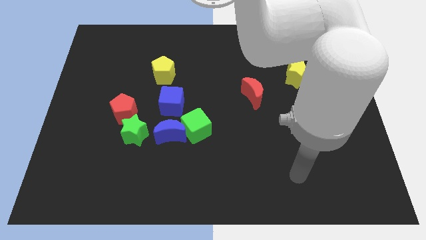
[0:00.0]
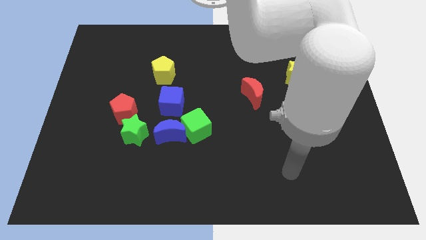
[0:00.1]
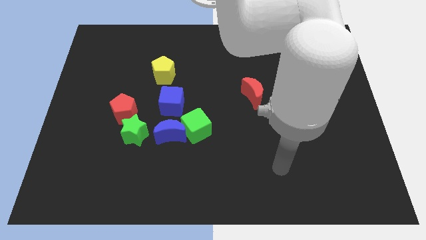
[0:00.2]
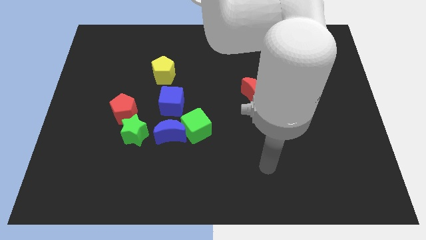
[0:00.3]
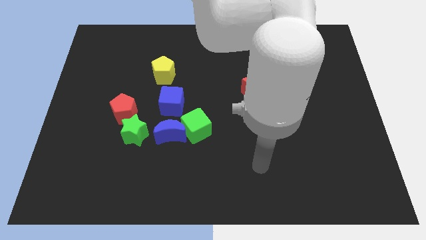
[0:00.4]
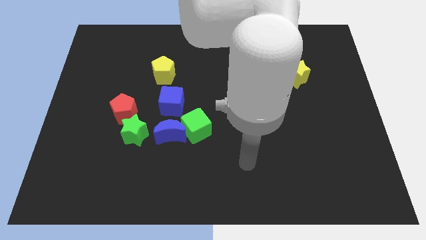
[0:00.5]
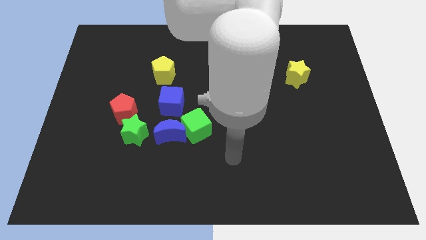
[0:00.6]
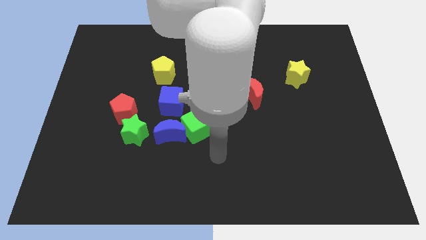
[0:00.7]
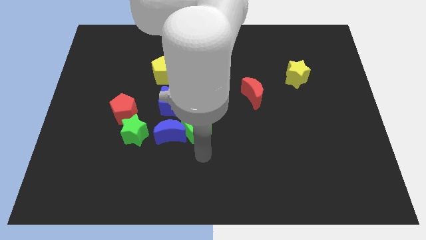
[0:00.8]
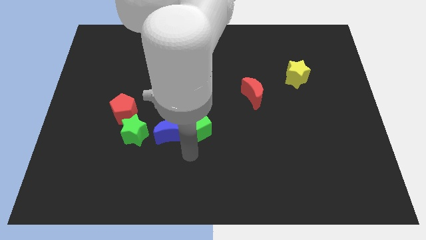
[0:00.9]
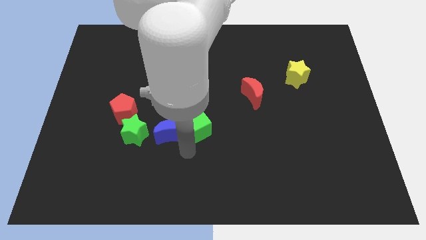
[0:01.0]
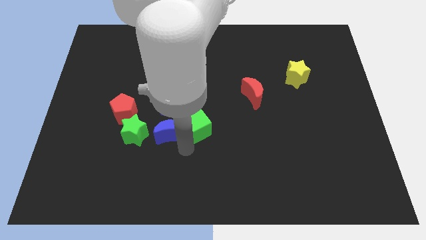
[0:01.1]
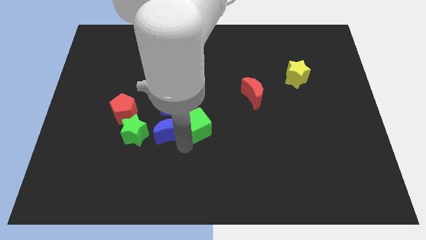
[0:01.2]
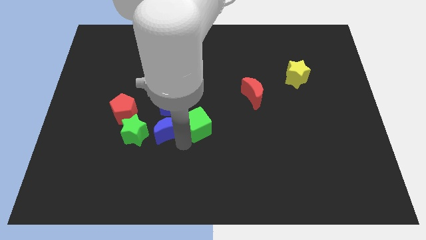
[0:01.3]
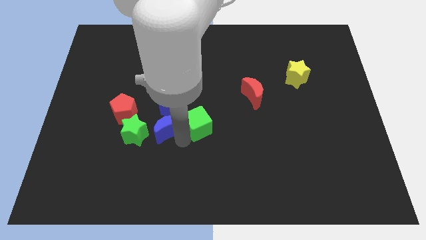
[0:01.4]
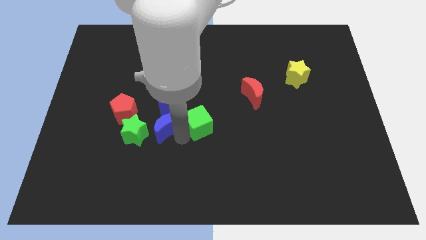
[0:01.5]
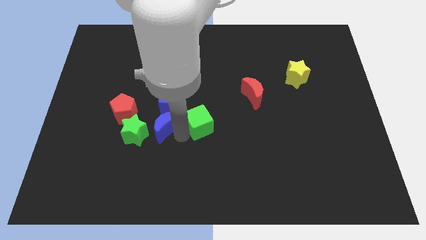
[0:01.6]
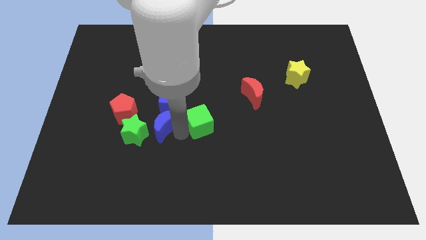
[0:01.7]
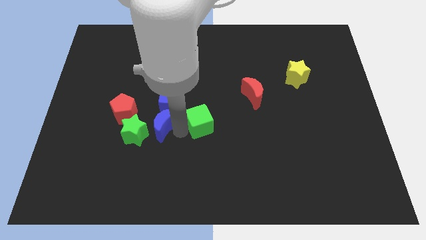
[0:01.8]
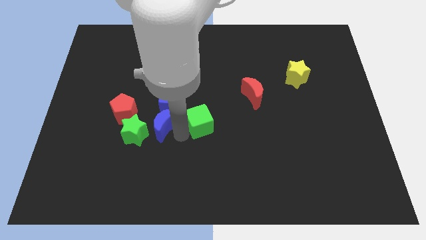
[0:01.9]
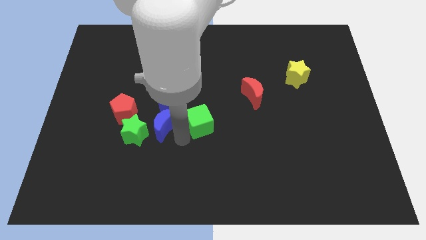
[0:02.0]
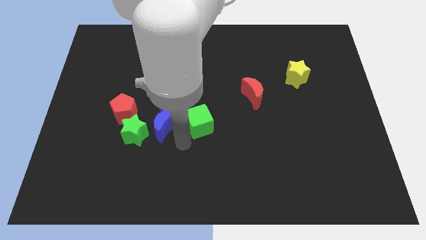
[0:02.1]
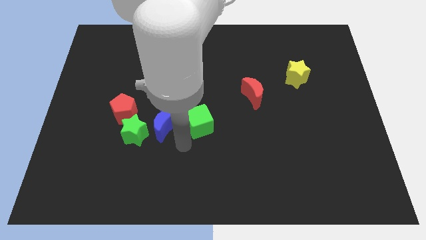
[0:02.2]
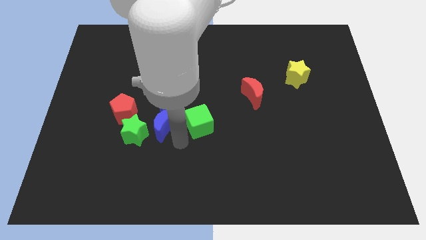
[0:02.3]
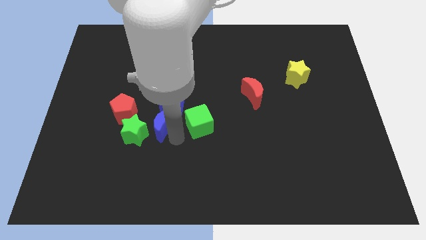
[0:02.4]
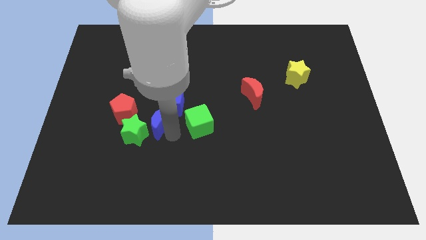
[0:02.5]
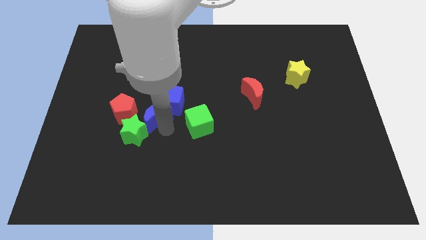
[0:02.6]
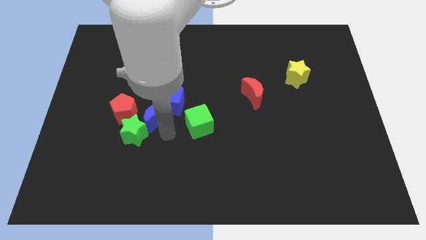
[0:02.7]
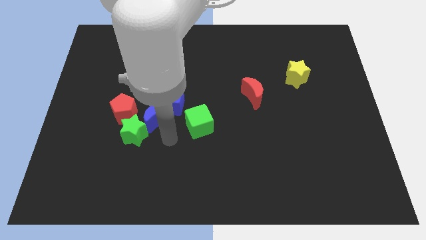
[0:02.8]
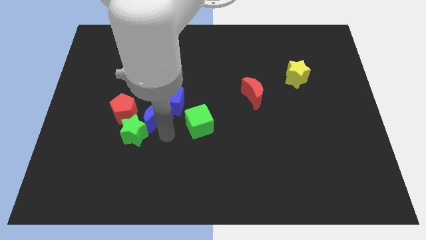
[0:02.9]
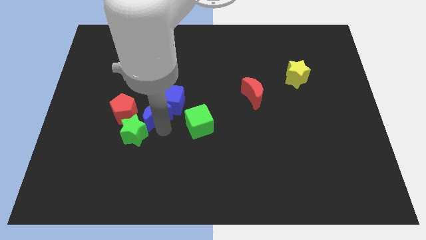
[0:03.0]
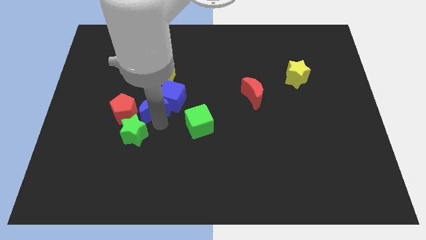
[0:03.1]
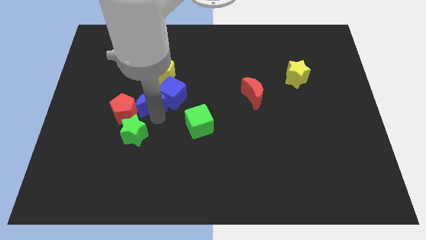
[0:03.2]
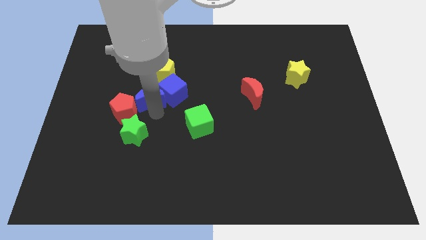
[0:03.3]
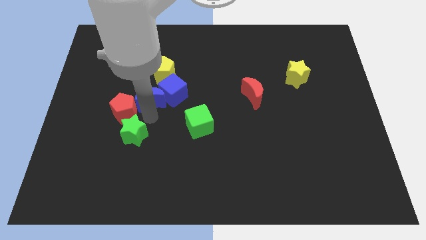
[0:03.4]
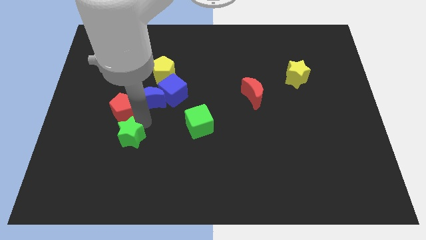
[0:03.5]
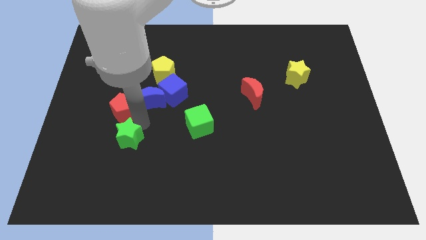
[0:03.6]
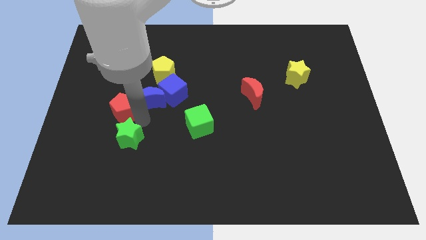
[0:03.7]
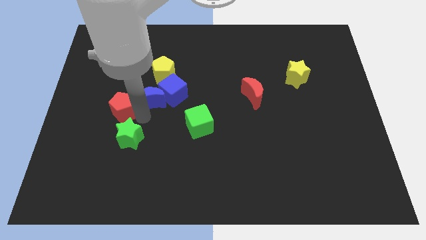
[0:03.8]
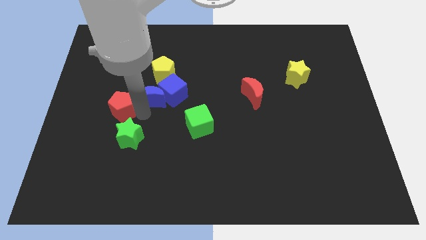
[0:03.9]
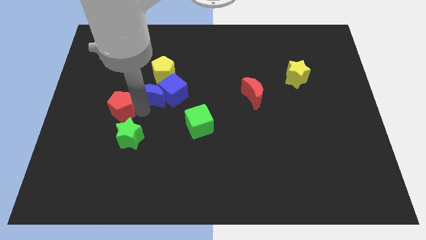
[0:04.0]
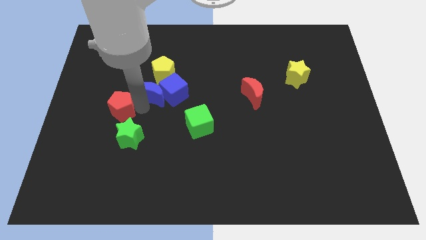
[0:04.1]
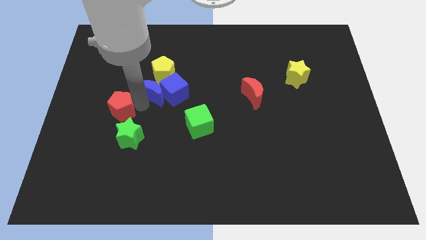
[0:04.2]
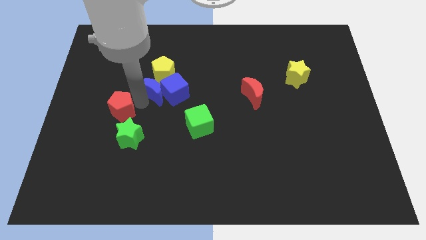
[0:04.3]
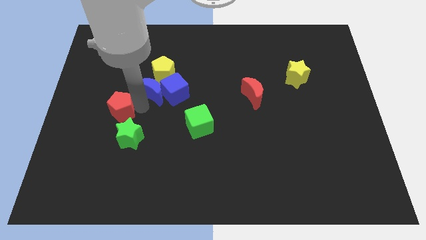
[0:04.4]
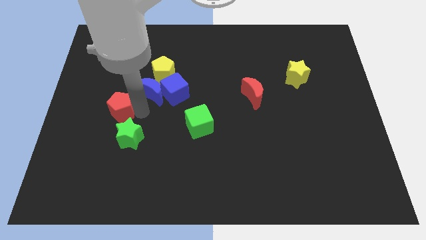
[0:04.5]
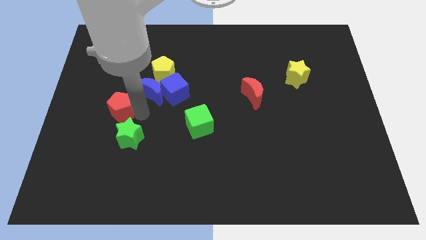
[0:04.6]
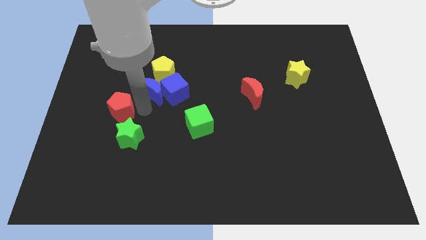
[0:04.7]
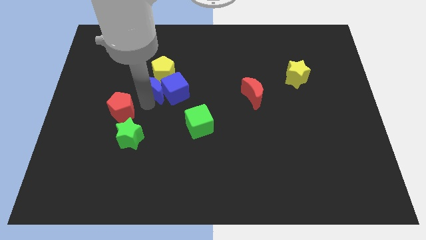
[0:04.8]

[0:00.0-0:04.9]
put the blue moon towards the yellow pentagon

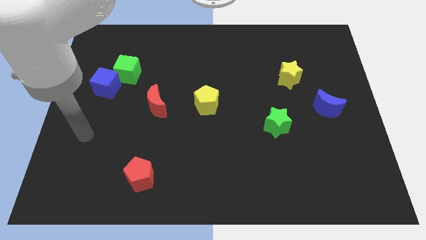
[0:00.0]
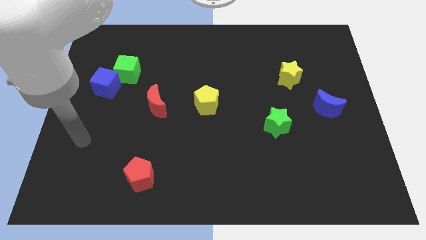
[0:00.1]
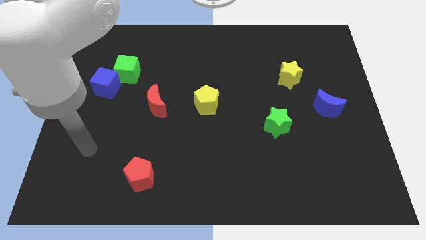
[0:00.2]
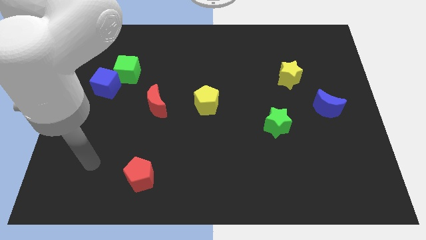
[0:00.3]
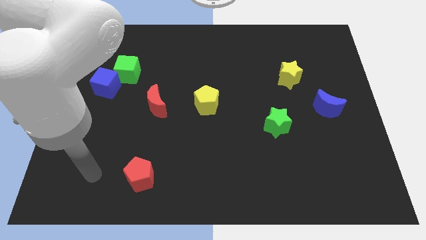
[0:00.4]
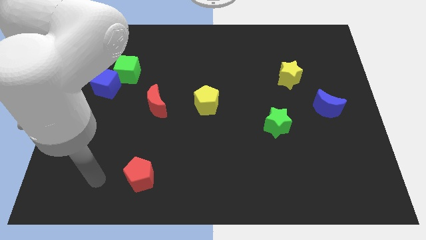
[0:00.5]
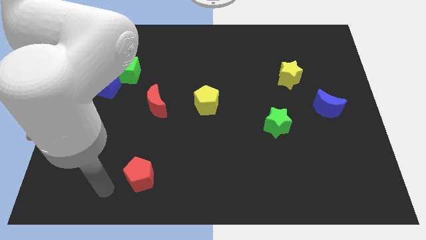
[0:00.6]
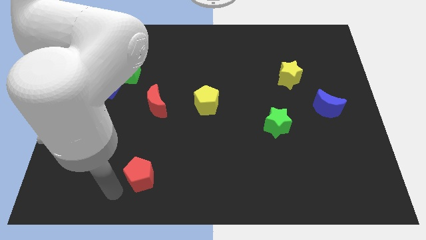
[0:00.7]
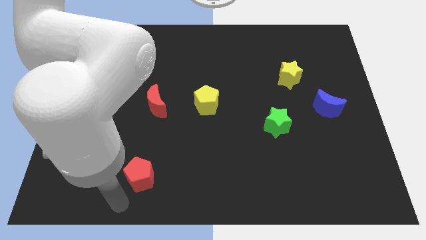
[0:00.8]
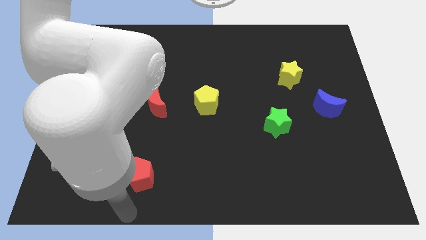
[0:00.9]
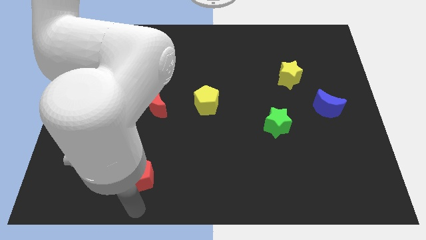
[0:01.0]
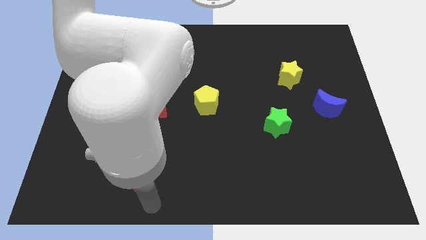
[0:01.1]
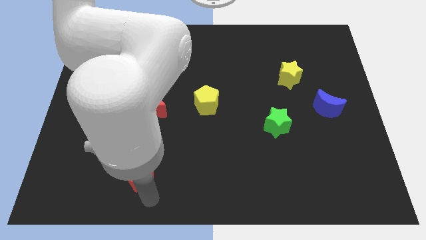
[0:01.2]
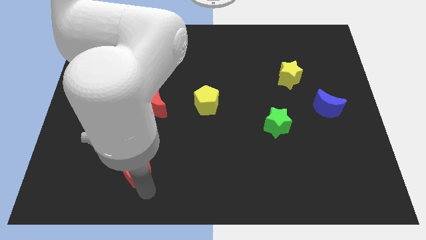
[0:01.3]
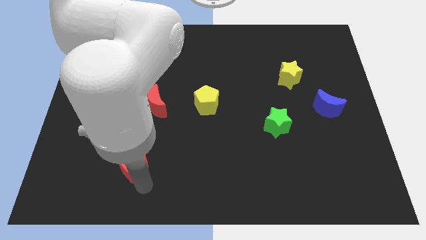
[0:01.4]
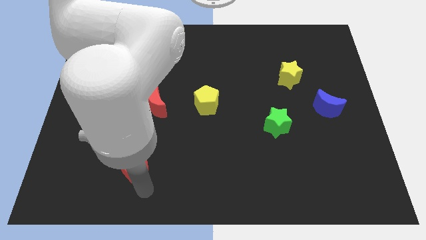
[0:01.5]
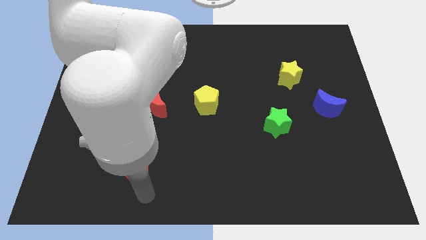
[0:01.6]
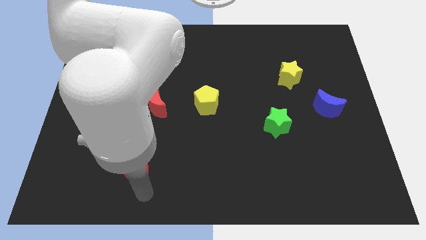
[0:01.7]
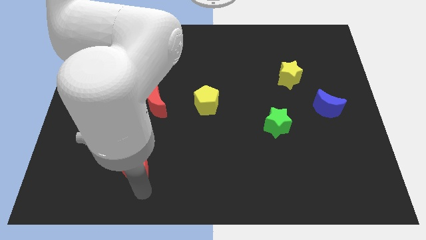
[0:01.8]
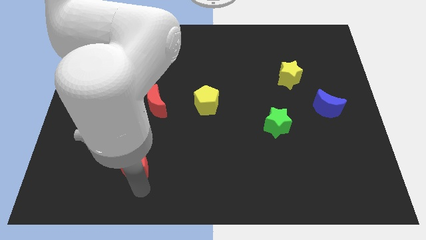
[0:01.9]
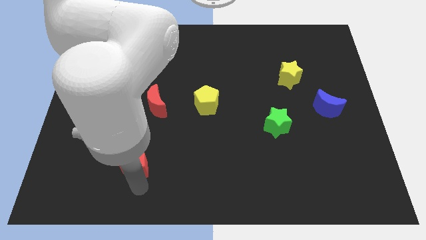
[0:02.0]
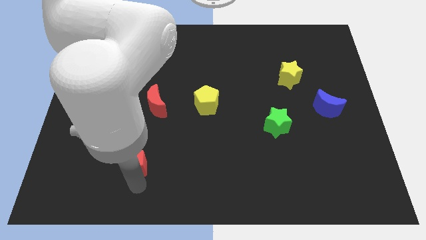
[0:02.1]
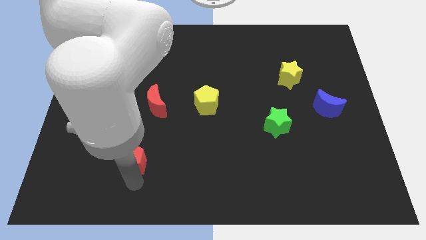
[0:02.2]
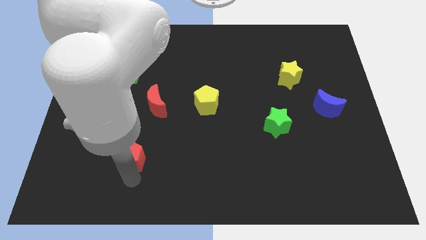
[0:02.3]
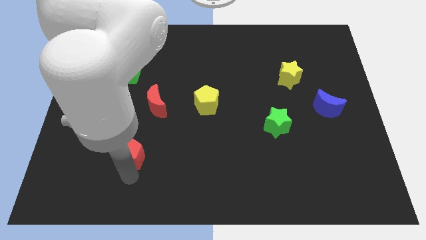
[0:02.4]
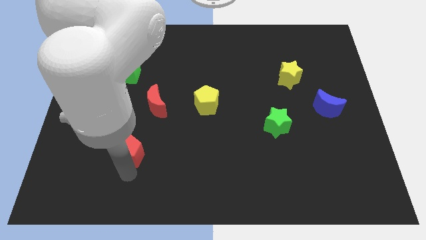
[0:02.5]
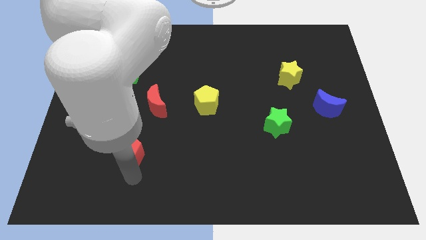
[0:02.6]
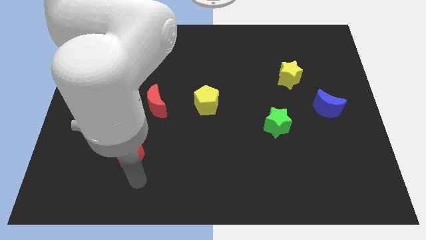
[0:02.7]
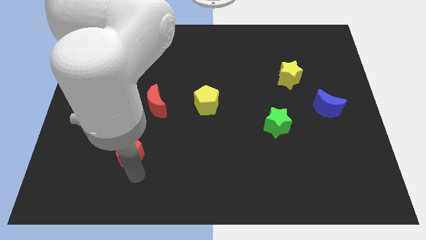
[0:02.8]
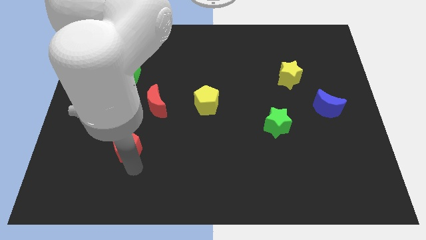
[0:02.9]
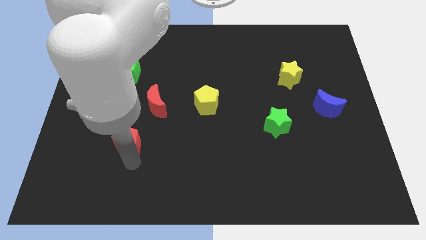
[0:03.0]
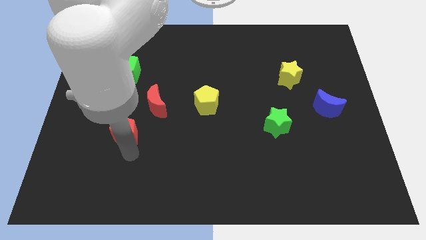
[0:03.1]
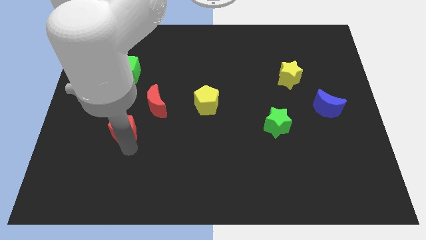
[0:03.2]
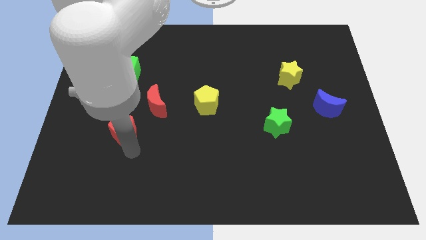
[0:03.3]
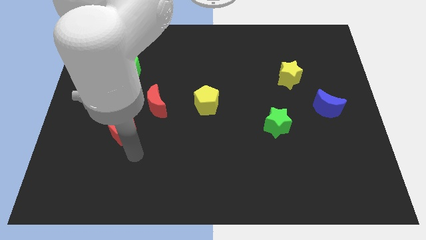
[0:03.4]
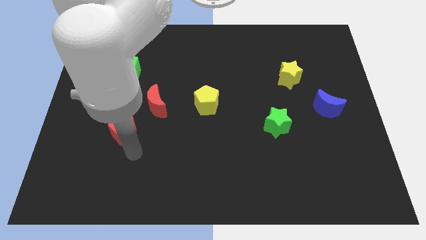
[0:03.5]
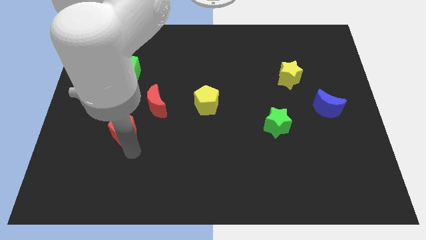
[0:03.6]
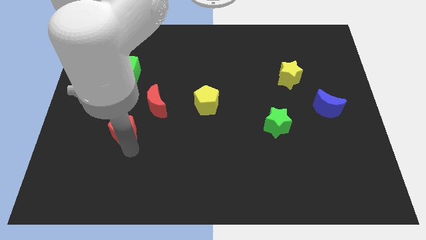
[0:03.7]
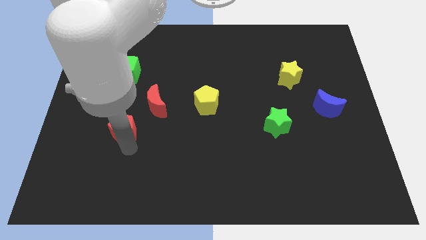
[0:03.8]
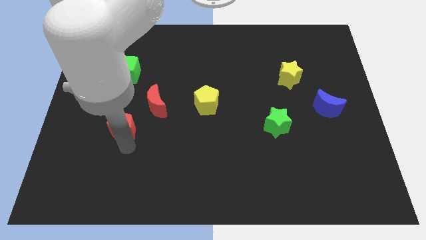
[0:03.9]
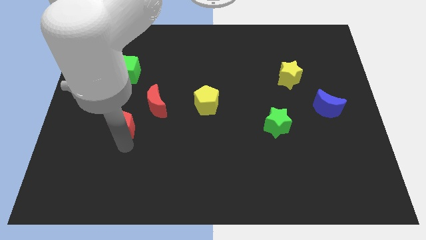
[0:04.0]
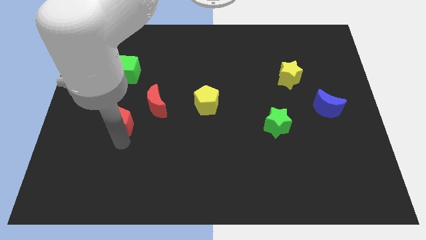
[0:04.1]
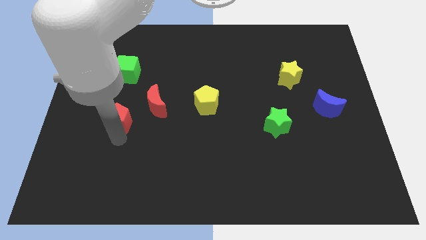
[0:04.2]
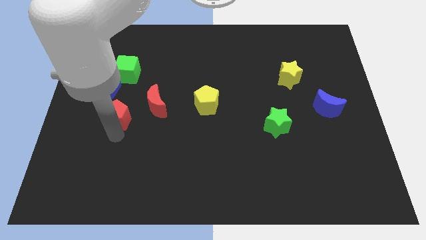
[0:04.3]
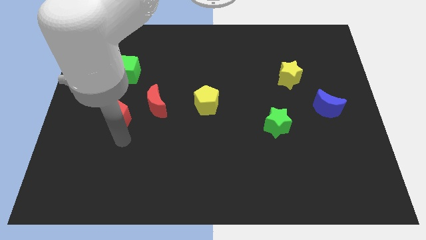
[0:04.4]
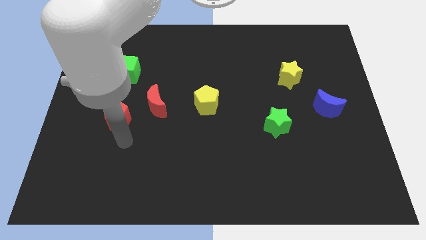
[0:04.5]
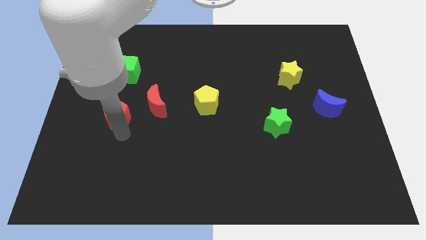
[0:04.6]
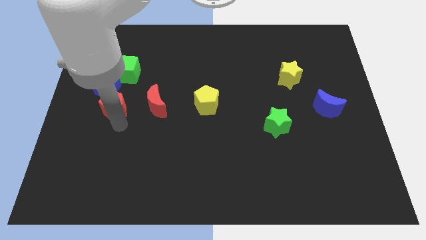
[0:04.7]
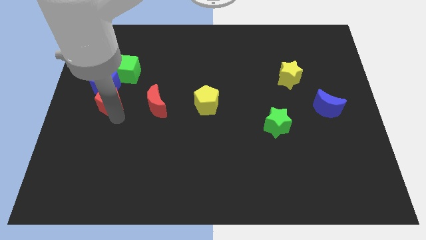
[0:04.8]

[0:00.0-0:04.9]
move the red pentagon towards the blue cube
